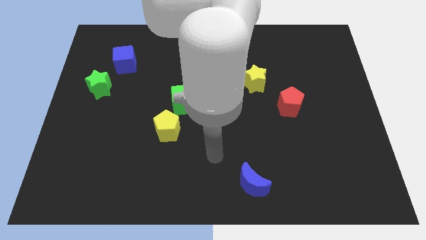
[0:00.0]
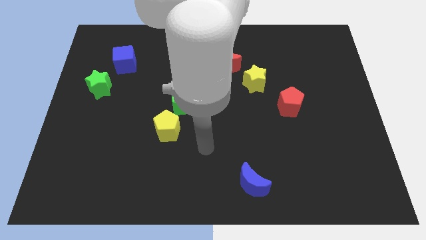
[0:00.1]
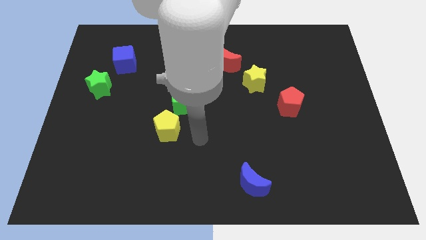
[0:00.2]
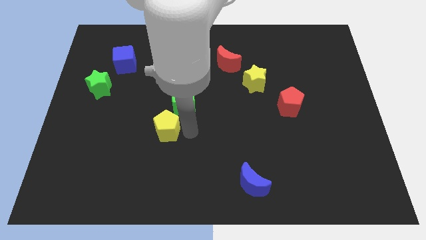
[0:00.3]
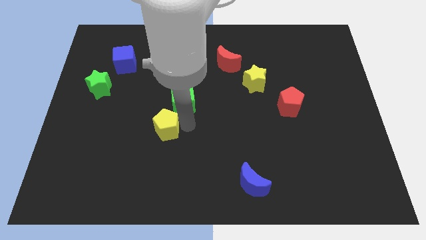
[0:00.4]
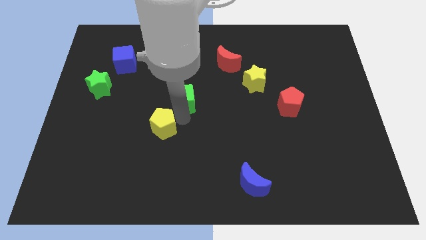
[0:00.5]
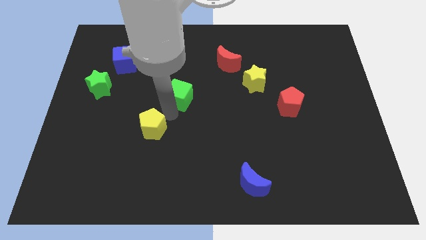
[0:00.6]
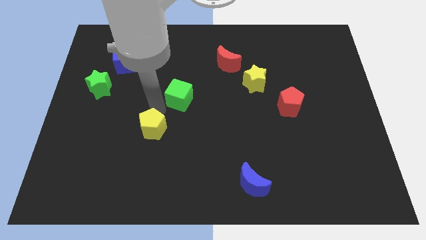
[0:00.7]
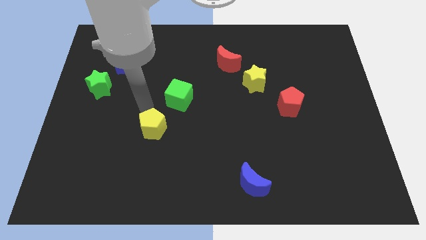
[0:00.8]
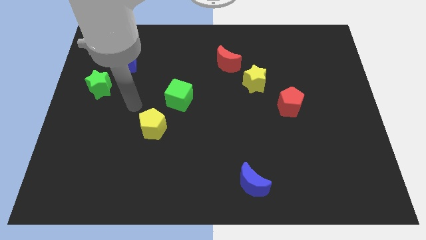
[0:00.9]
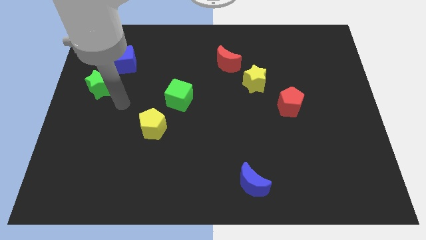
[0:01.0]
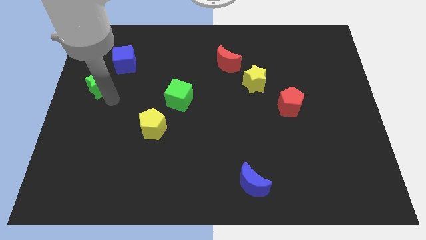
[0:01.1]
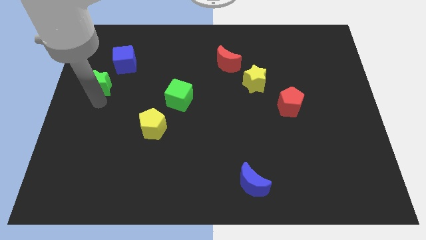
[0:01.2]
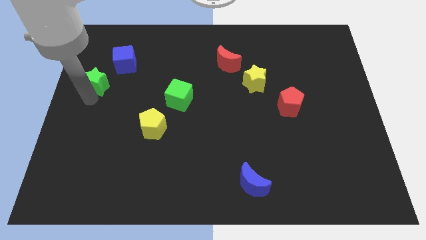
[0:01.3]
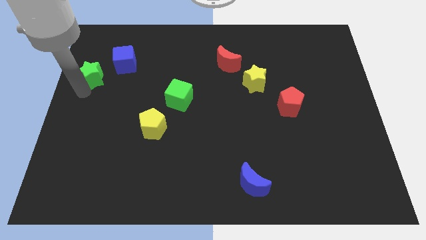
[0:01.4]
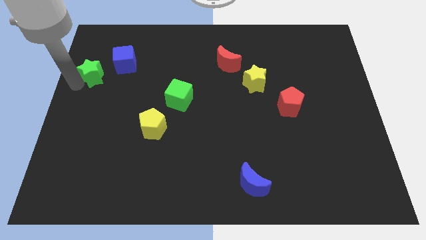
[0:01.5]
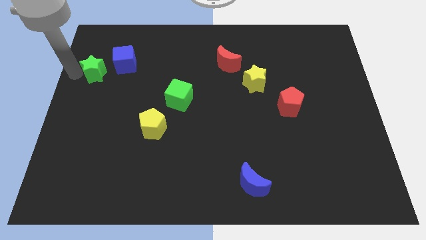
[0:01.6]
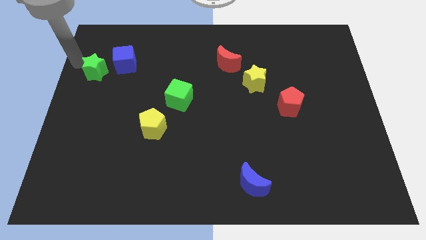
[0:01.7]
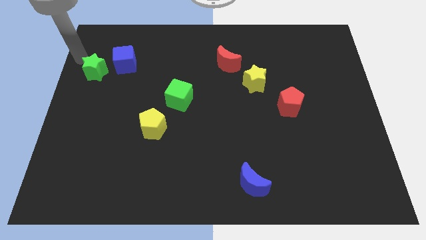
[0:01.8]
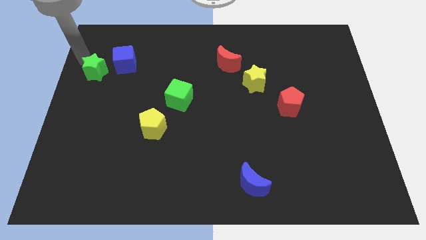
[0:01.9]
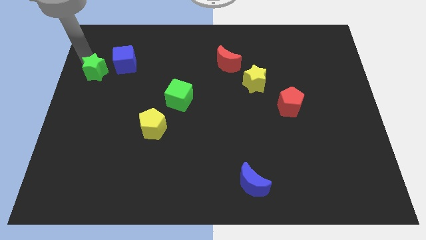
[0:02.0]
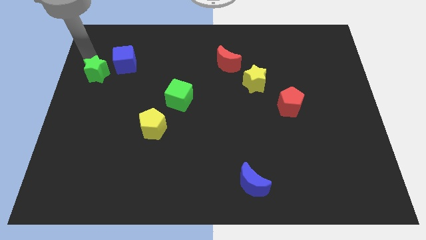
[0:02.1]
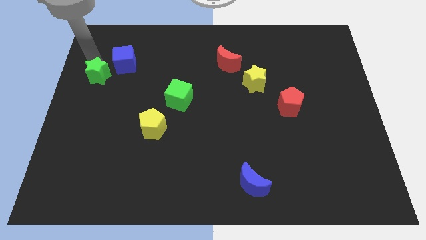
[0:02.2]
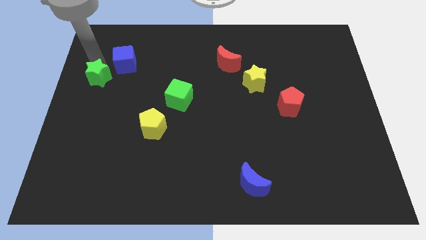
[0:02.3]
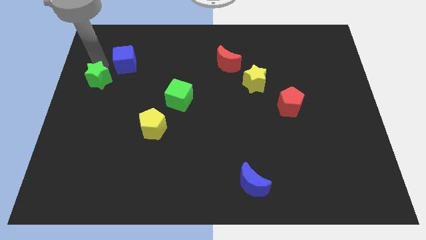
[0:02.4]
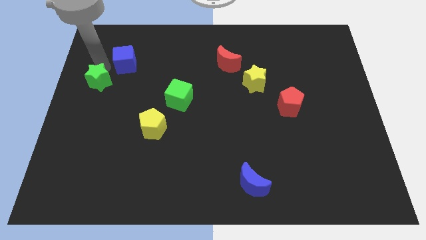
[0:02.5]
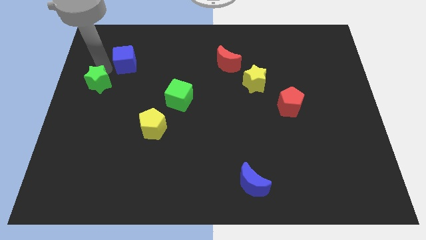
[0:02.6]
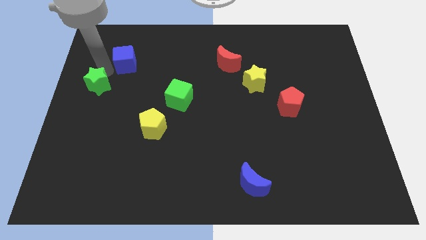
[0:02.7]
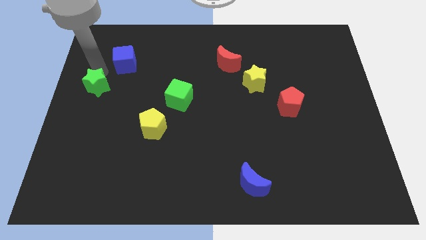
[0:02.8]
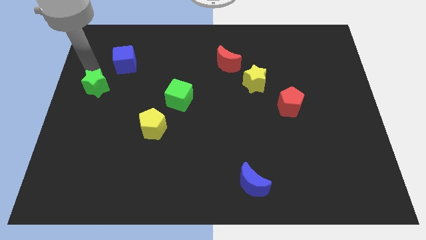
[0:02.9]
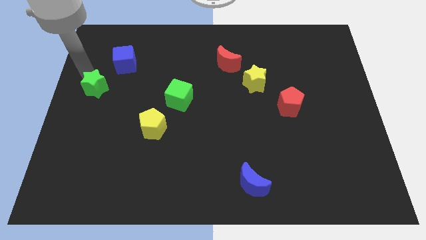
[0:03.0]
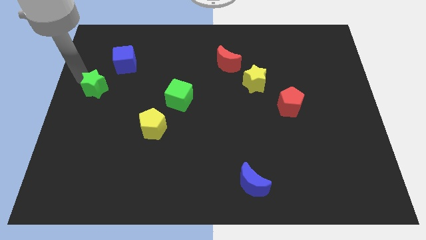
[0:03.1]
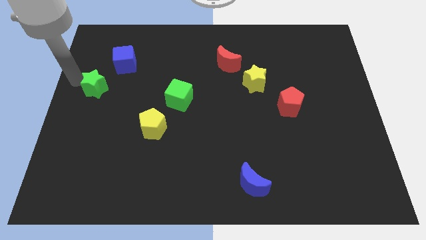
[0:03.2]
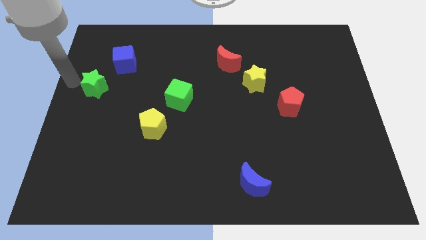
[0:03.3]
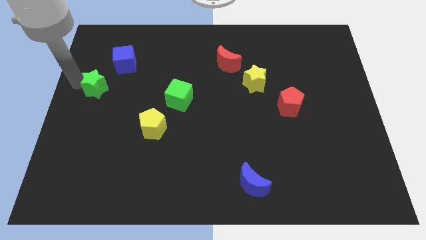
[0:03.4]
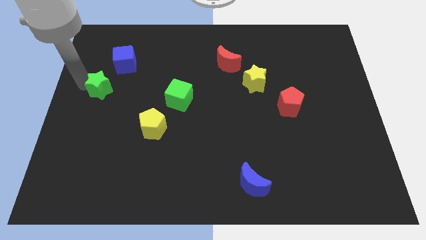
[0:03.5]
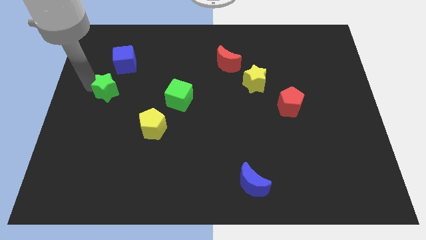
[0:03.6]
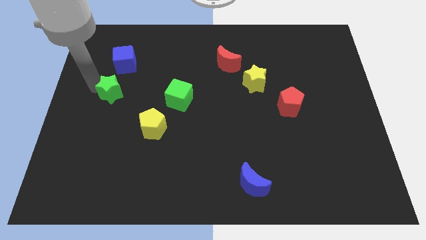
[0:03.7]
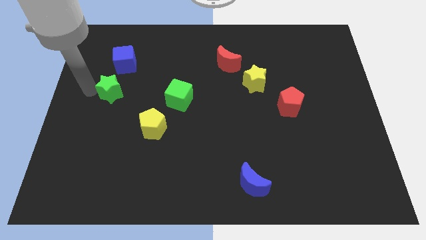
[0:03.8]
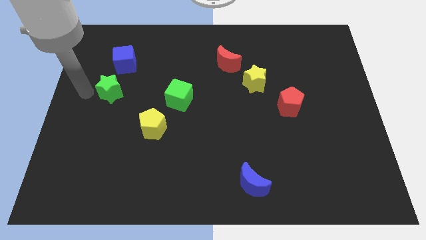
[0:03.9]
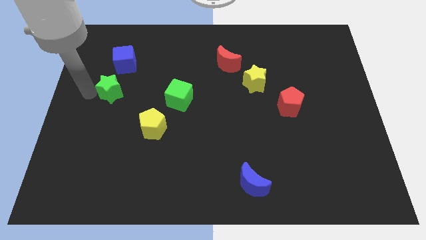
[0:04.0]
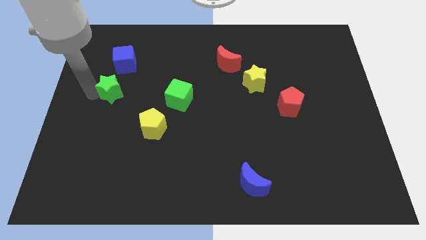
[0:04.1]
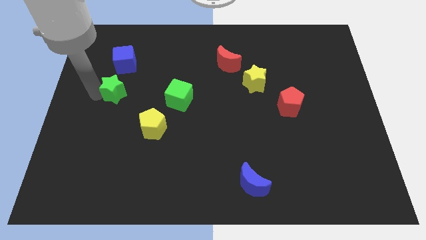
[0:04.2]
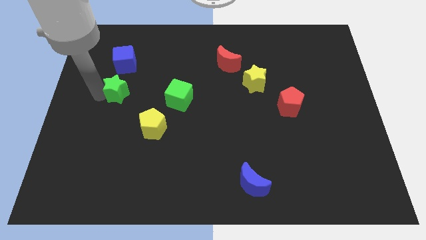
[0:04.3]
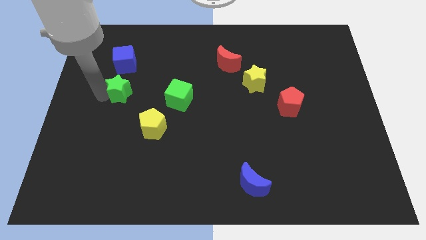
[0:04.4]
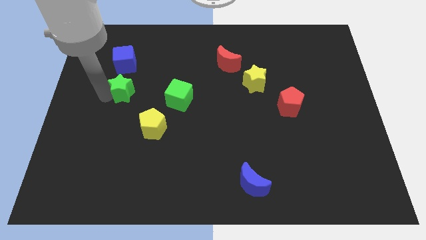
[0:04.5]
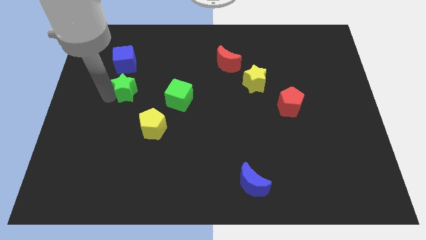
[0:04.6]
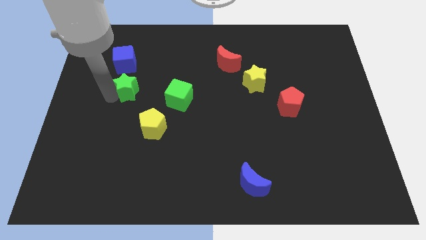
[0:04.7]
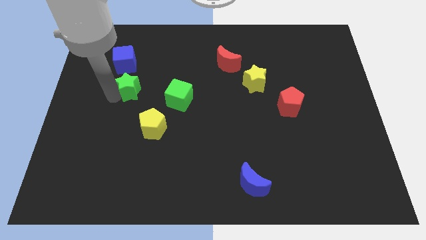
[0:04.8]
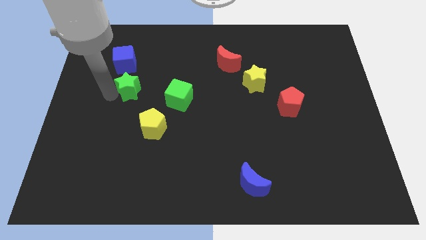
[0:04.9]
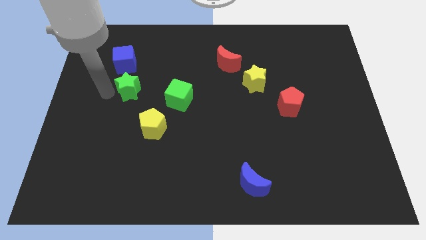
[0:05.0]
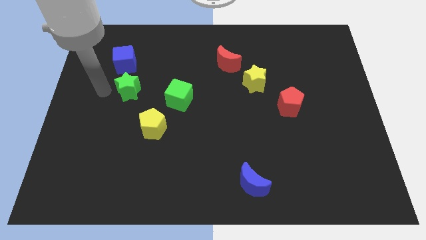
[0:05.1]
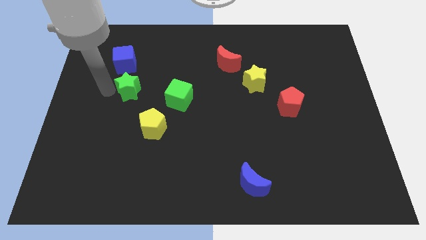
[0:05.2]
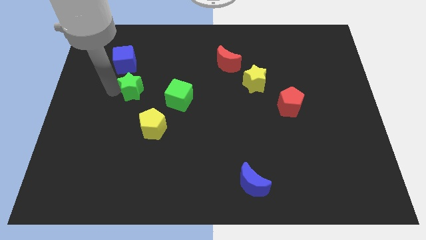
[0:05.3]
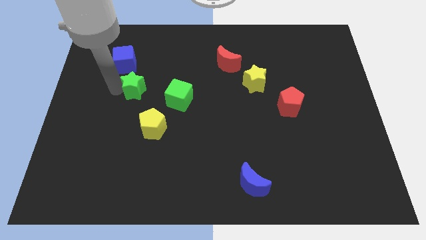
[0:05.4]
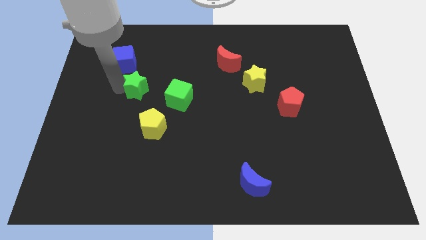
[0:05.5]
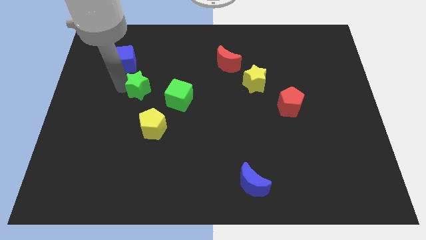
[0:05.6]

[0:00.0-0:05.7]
move the green star to the top of the yellow pentagon

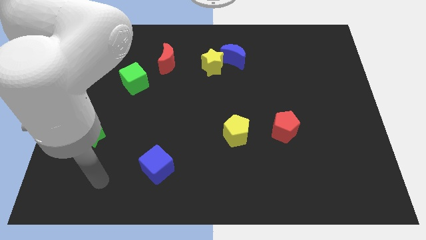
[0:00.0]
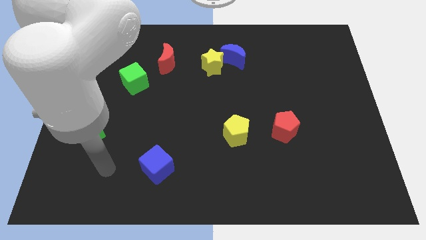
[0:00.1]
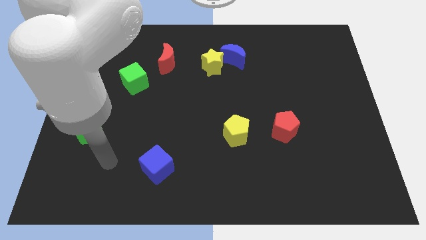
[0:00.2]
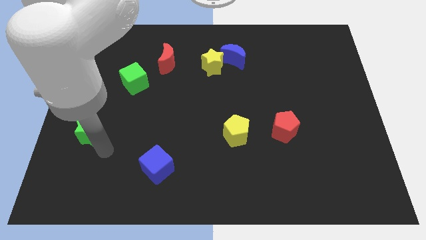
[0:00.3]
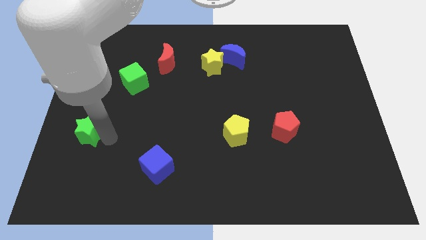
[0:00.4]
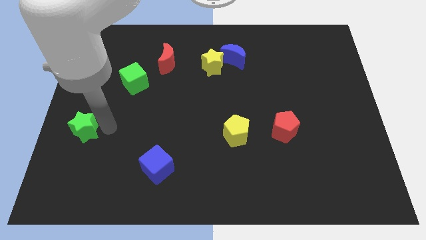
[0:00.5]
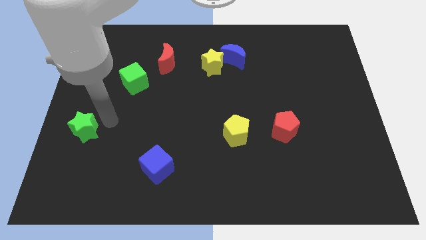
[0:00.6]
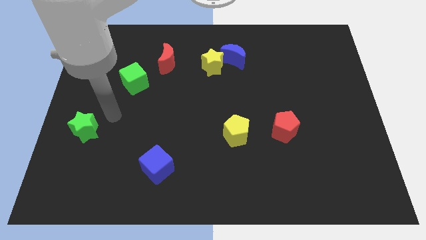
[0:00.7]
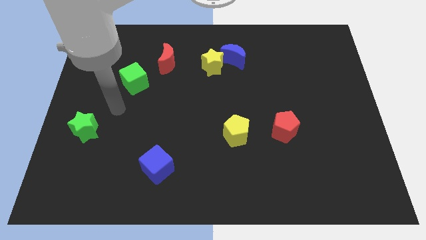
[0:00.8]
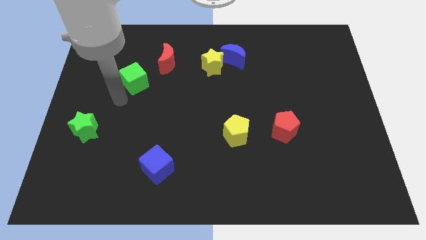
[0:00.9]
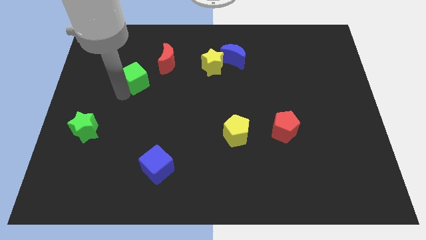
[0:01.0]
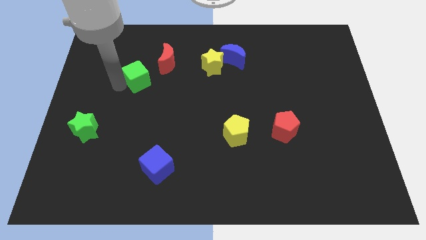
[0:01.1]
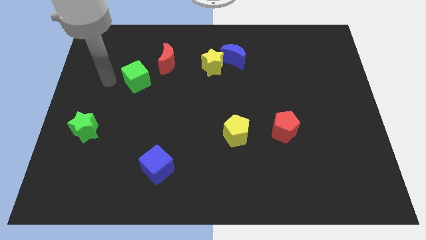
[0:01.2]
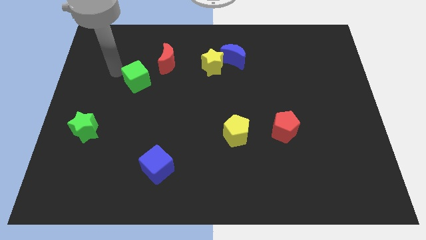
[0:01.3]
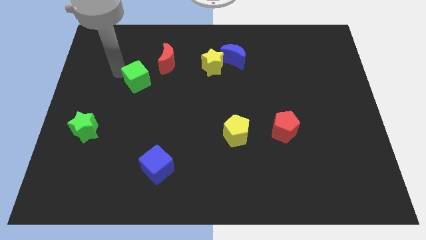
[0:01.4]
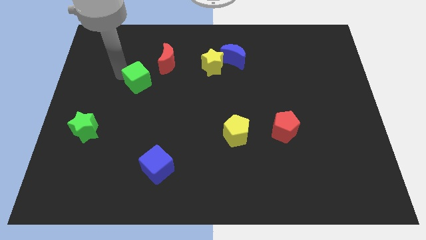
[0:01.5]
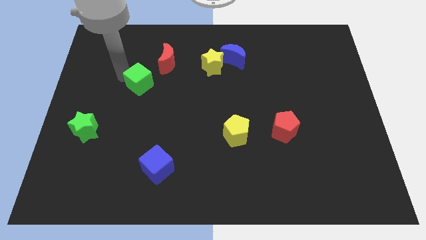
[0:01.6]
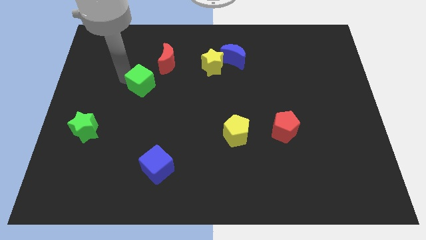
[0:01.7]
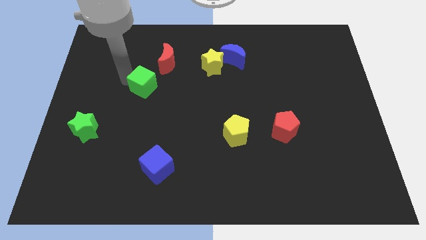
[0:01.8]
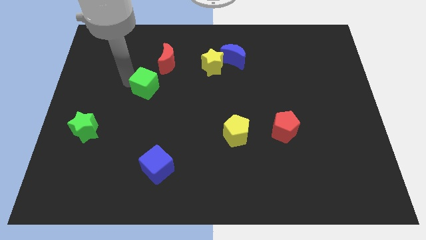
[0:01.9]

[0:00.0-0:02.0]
push the green cube below the red moon
